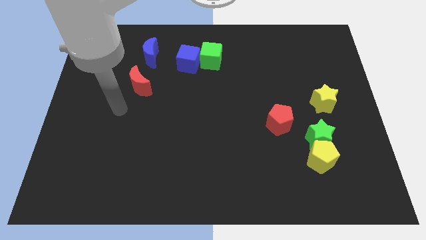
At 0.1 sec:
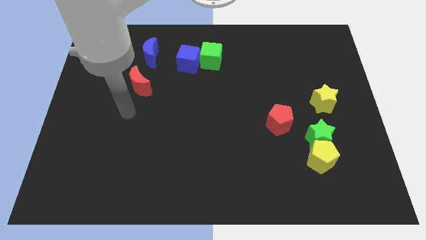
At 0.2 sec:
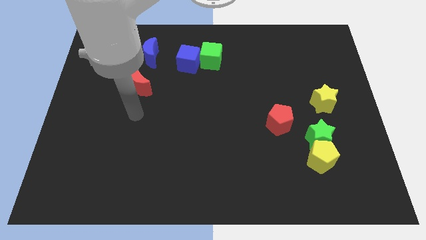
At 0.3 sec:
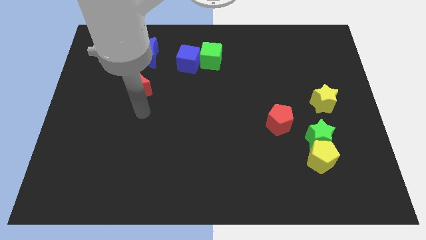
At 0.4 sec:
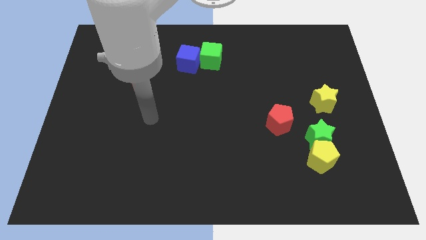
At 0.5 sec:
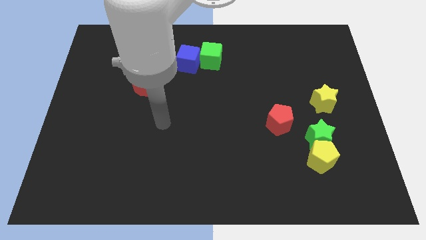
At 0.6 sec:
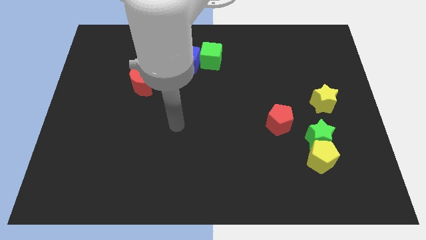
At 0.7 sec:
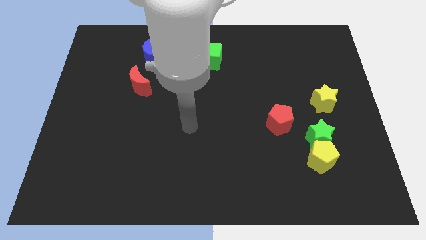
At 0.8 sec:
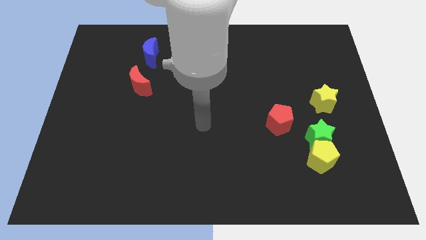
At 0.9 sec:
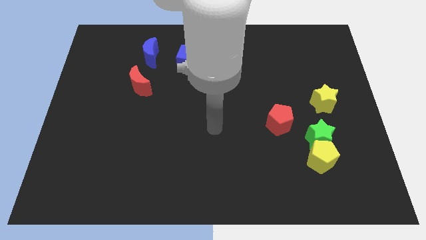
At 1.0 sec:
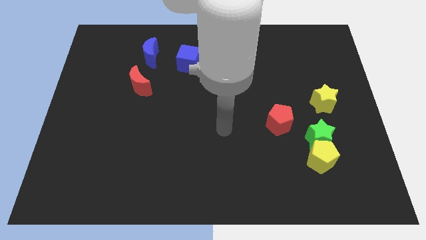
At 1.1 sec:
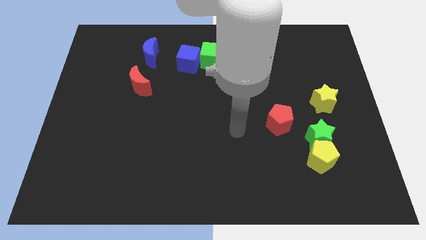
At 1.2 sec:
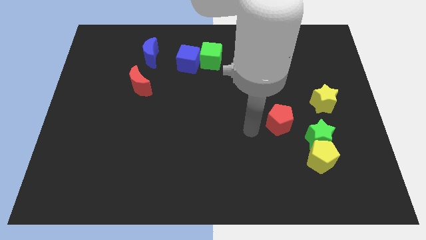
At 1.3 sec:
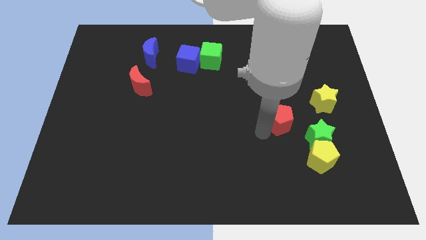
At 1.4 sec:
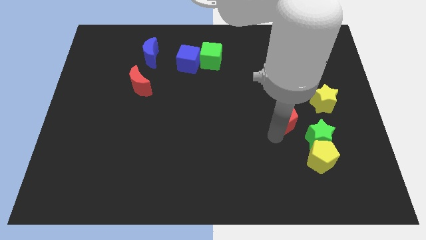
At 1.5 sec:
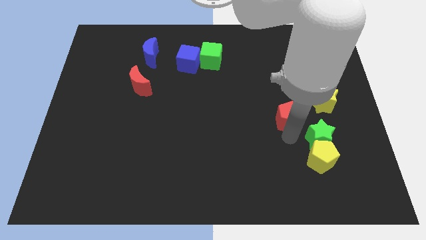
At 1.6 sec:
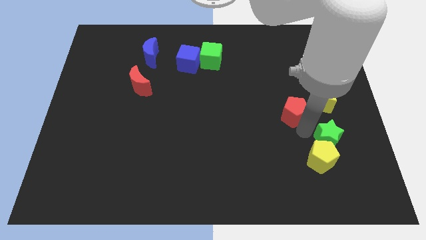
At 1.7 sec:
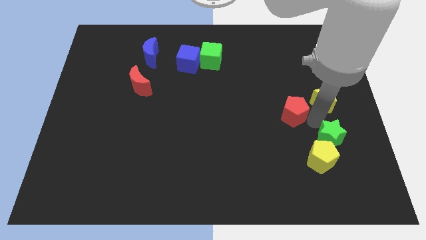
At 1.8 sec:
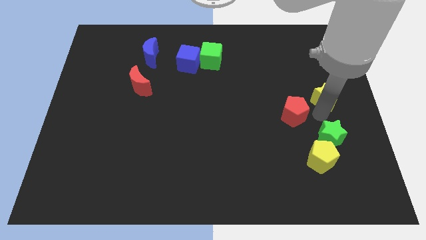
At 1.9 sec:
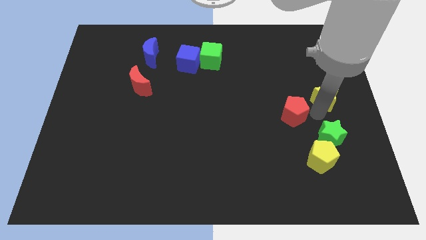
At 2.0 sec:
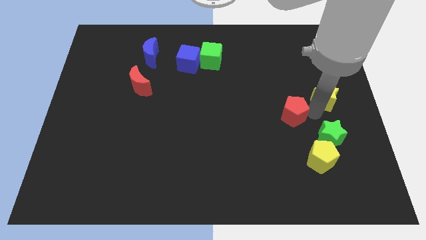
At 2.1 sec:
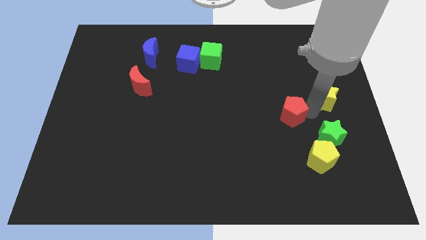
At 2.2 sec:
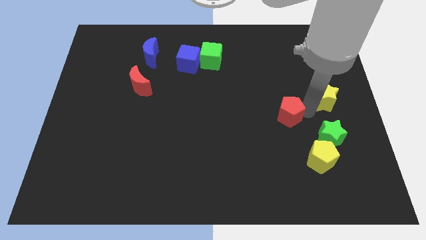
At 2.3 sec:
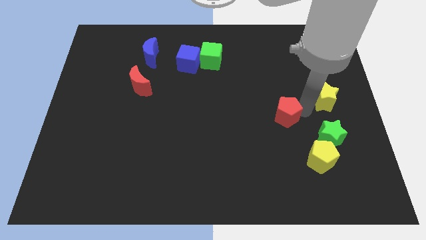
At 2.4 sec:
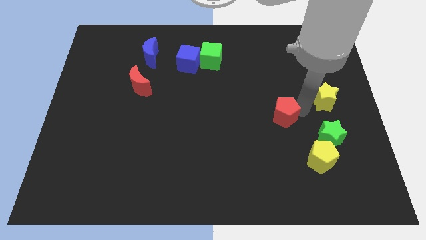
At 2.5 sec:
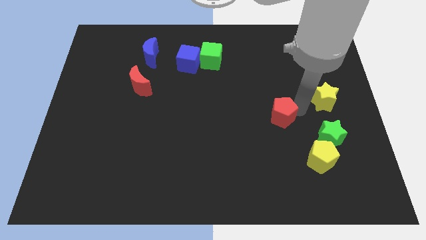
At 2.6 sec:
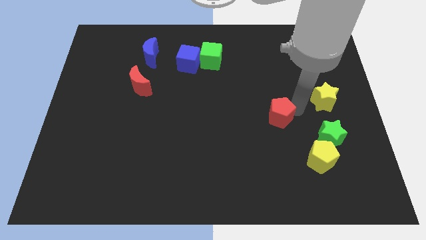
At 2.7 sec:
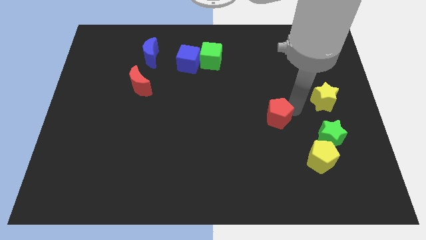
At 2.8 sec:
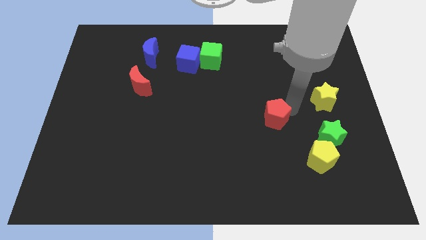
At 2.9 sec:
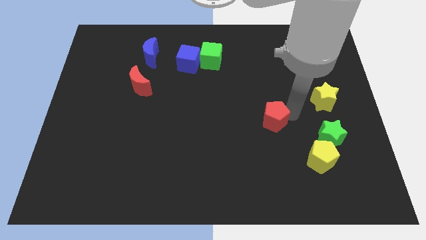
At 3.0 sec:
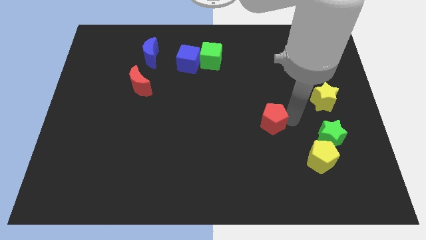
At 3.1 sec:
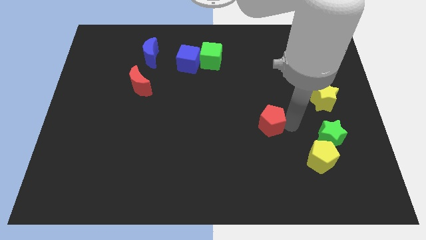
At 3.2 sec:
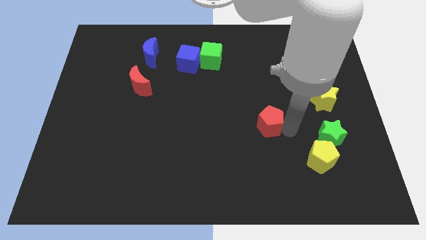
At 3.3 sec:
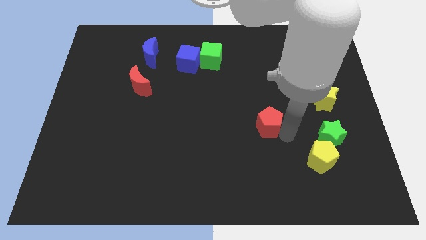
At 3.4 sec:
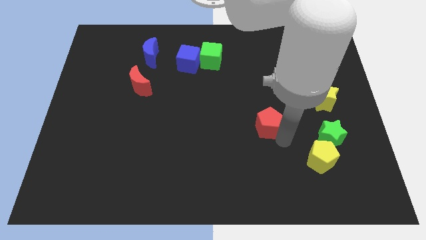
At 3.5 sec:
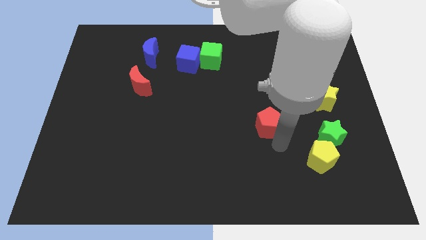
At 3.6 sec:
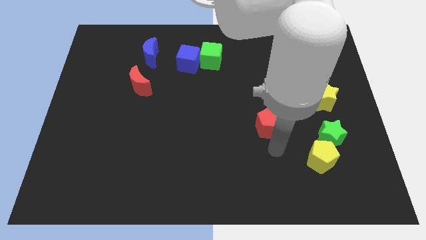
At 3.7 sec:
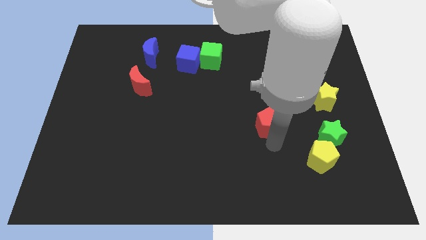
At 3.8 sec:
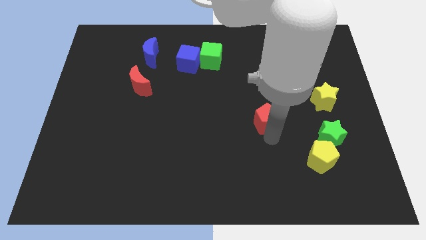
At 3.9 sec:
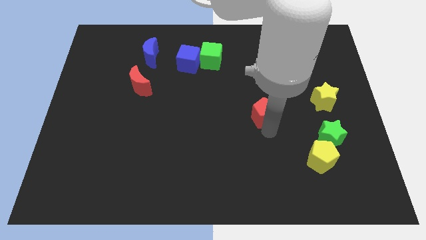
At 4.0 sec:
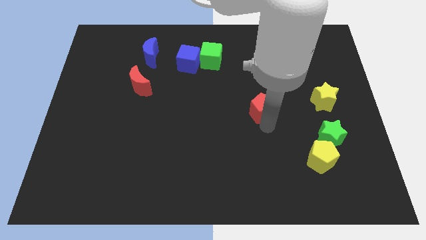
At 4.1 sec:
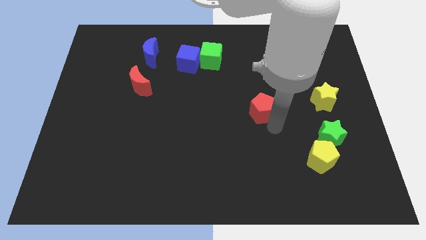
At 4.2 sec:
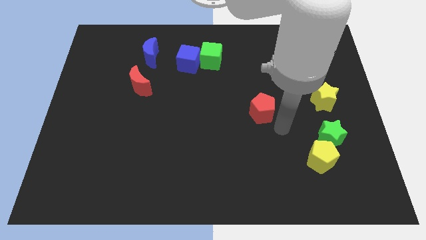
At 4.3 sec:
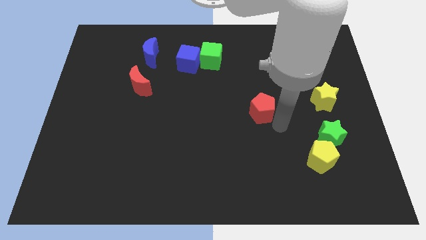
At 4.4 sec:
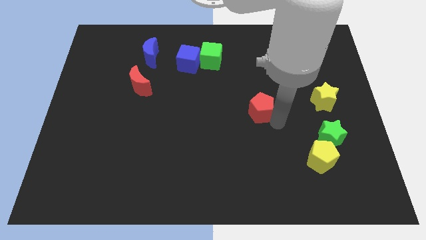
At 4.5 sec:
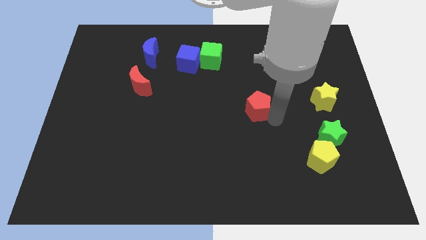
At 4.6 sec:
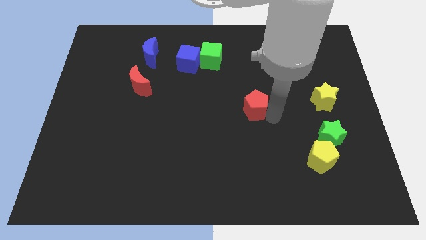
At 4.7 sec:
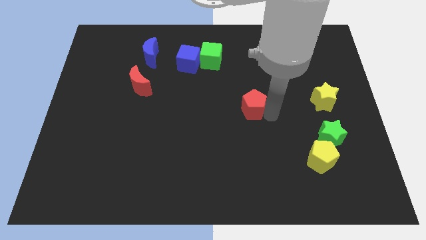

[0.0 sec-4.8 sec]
move the red pentagon a little bit up and to the left diagonally

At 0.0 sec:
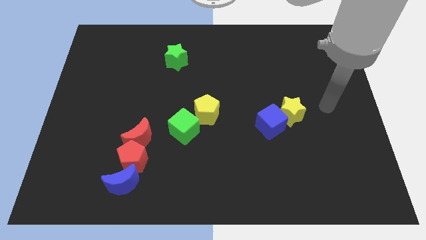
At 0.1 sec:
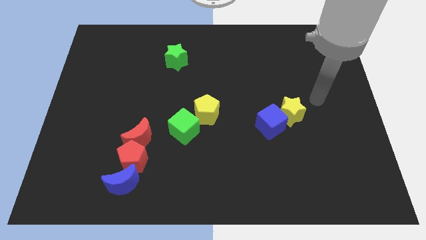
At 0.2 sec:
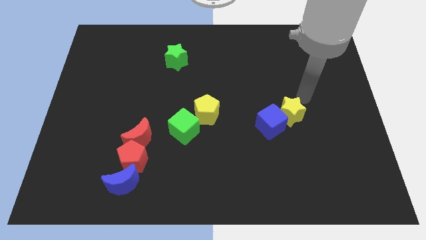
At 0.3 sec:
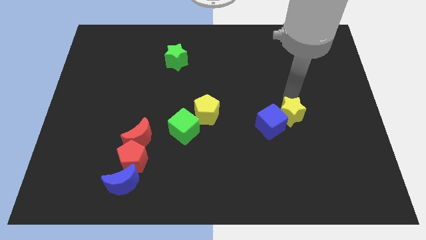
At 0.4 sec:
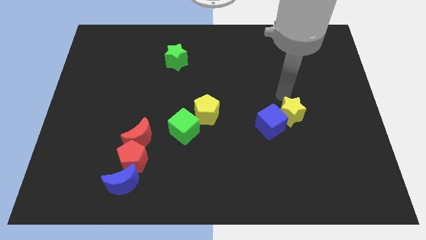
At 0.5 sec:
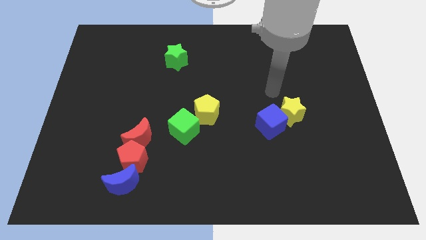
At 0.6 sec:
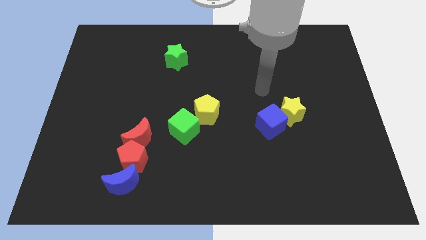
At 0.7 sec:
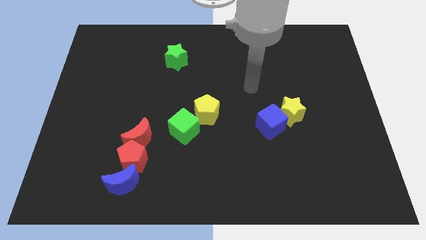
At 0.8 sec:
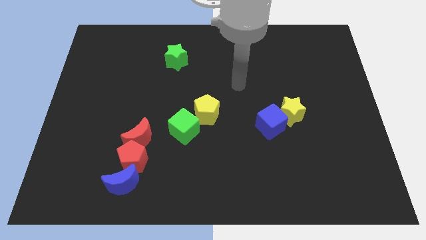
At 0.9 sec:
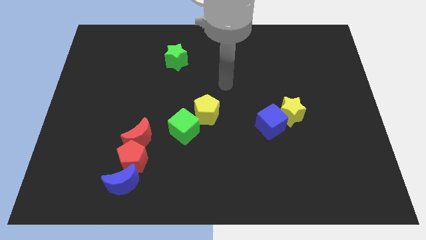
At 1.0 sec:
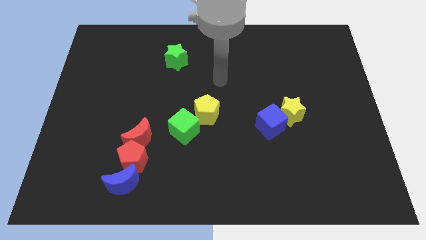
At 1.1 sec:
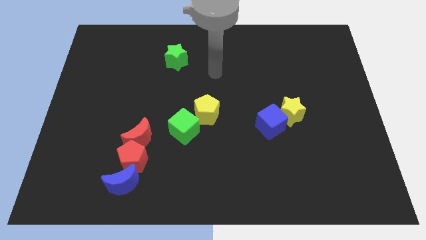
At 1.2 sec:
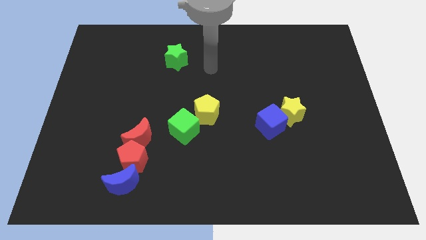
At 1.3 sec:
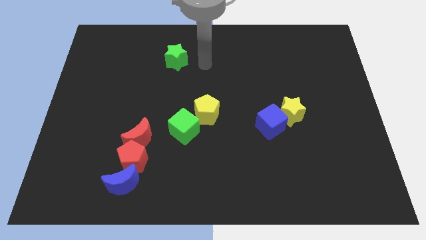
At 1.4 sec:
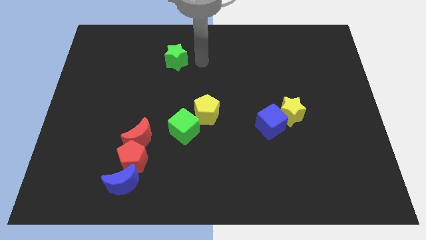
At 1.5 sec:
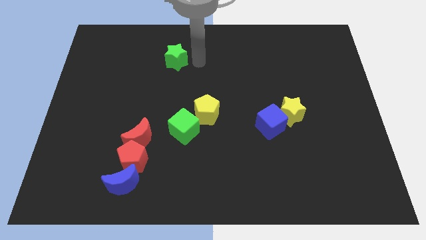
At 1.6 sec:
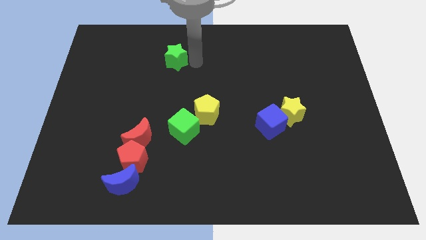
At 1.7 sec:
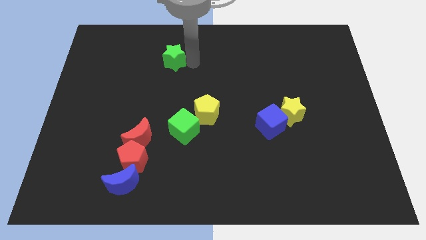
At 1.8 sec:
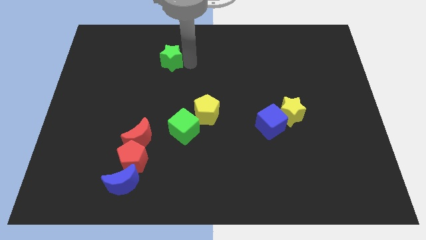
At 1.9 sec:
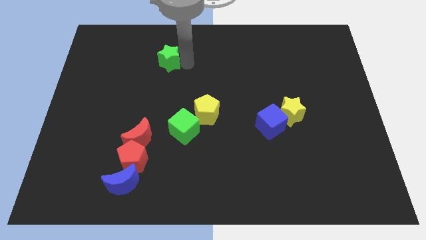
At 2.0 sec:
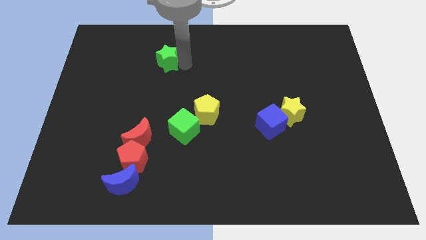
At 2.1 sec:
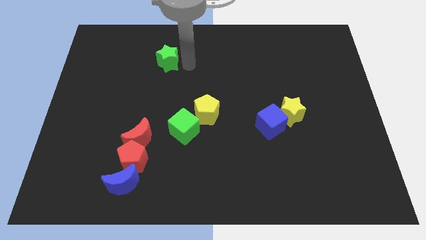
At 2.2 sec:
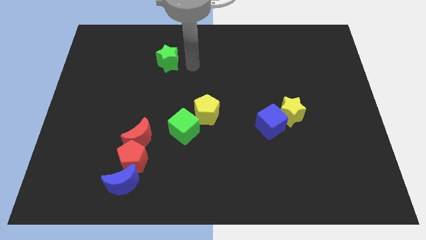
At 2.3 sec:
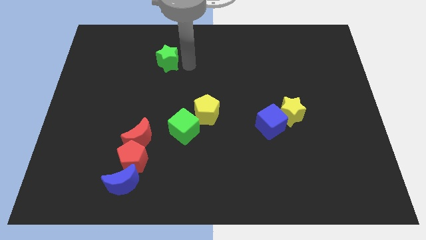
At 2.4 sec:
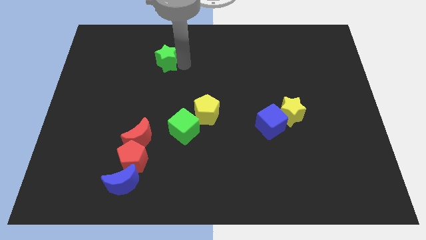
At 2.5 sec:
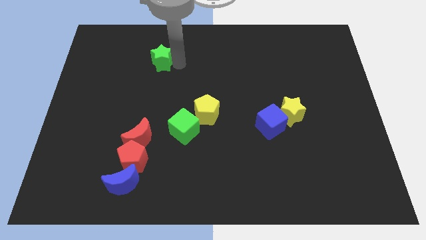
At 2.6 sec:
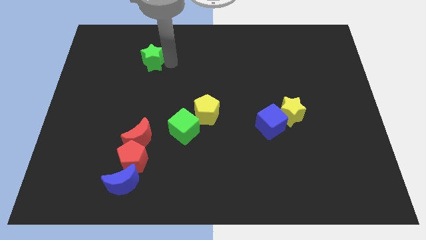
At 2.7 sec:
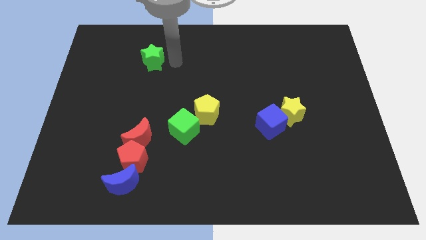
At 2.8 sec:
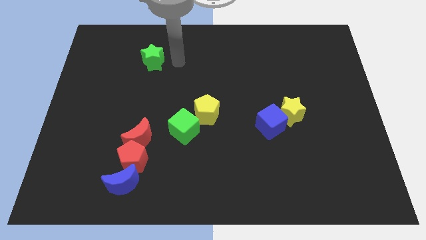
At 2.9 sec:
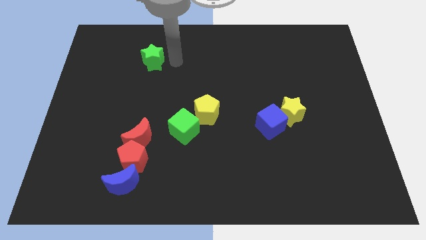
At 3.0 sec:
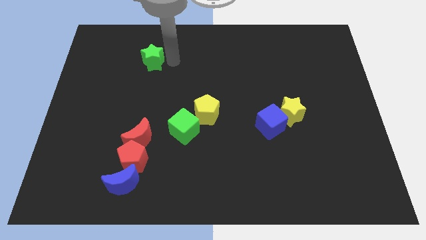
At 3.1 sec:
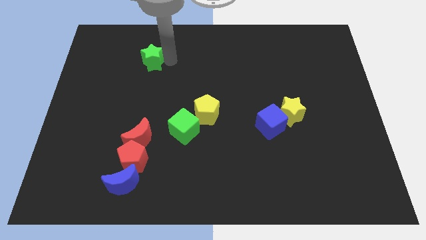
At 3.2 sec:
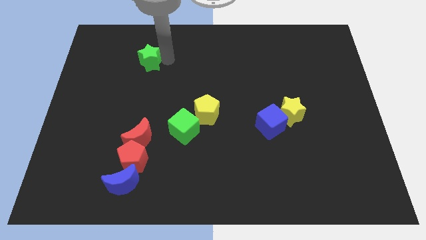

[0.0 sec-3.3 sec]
slightly slide the green star to the left

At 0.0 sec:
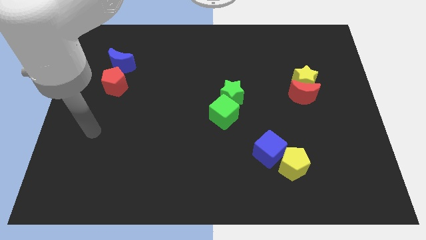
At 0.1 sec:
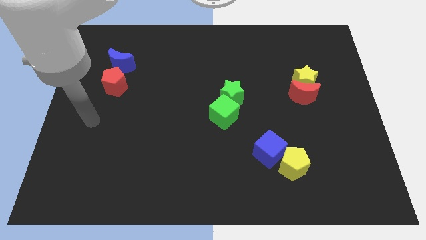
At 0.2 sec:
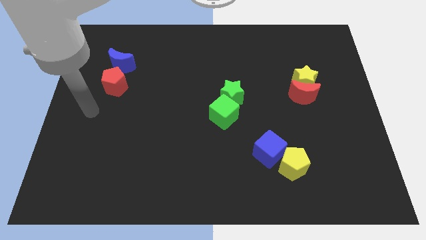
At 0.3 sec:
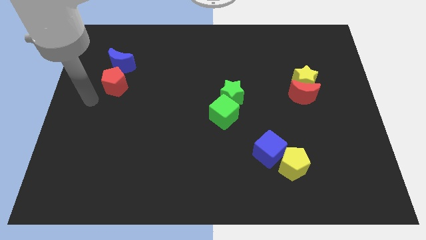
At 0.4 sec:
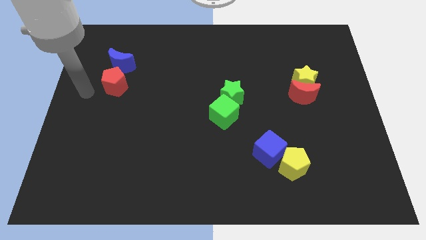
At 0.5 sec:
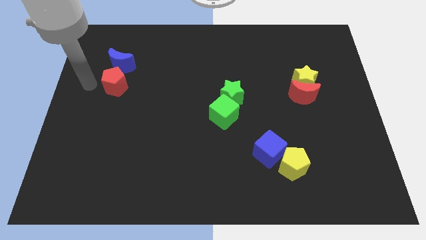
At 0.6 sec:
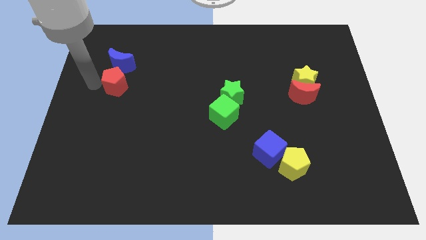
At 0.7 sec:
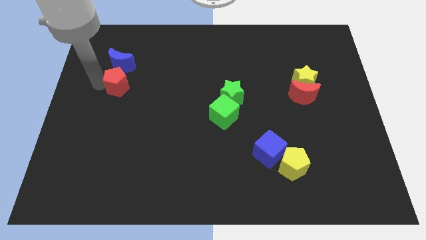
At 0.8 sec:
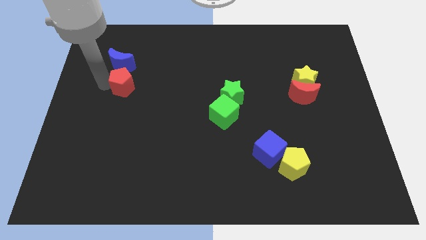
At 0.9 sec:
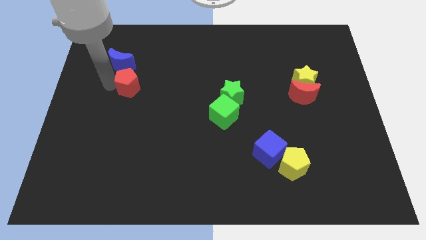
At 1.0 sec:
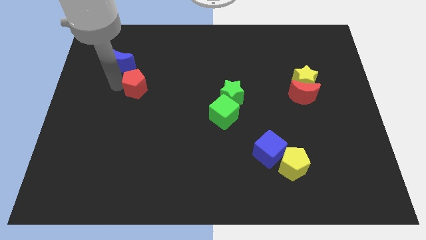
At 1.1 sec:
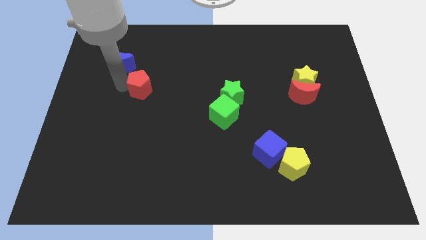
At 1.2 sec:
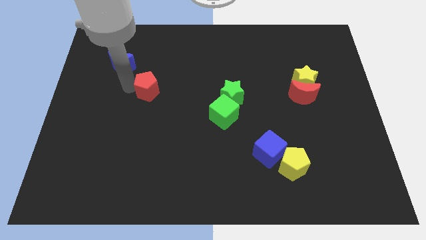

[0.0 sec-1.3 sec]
push the red pentagon a bit right
